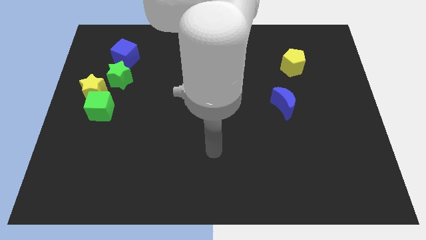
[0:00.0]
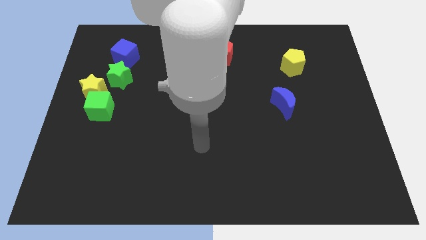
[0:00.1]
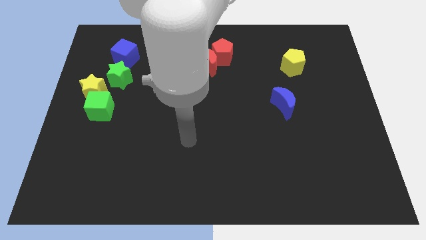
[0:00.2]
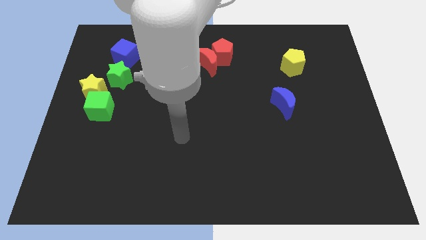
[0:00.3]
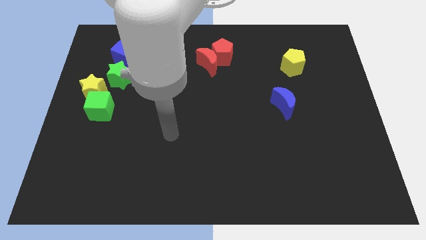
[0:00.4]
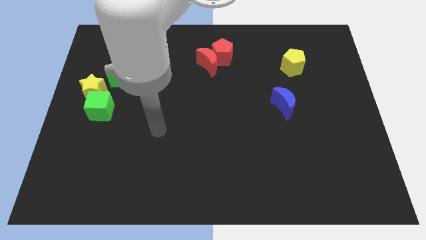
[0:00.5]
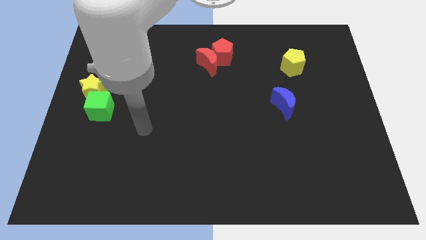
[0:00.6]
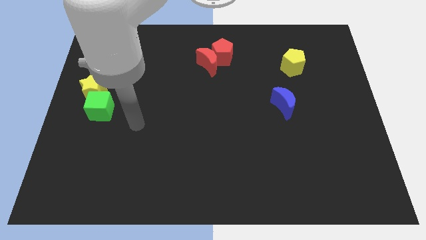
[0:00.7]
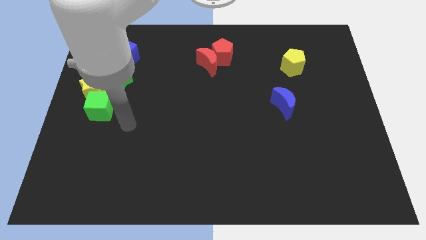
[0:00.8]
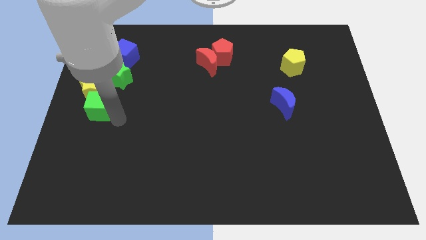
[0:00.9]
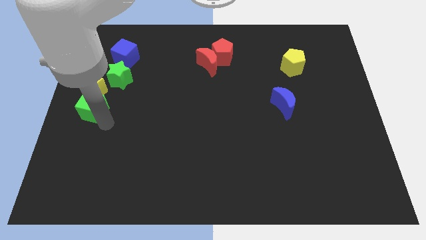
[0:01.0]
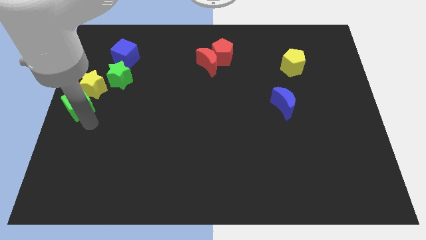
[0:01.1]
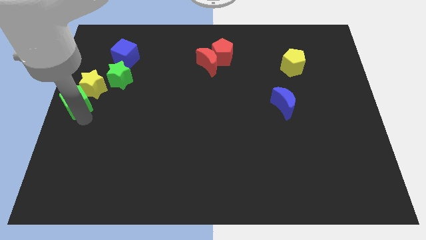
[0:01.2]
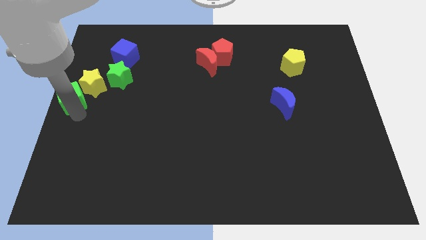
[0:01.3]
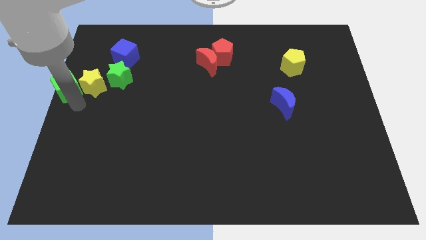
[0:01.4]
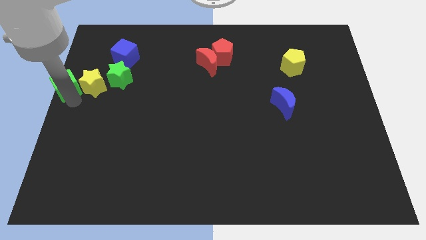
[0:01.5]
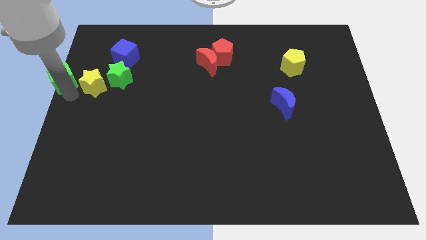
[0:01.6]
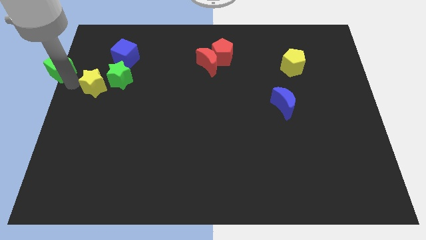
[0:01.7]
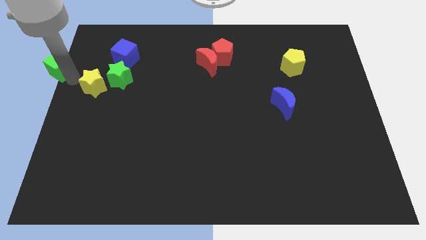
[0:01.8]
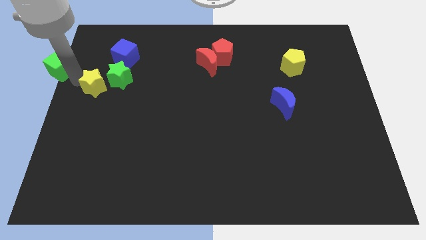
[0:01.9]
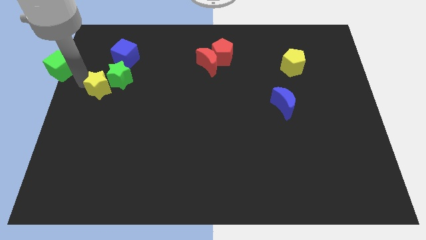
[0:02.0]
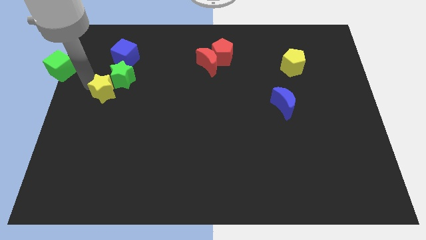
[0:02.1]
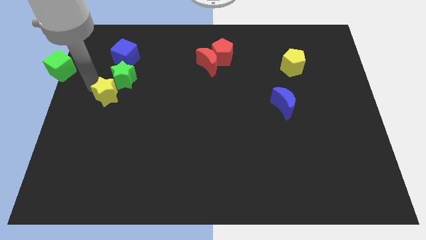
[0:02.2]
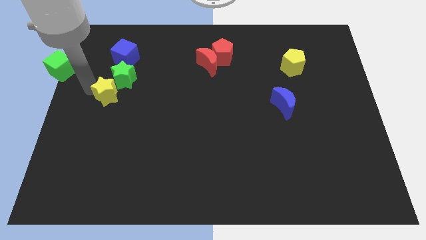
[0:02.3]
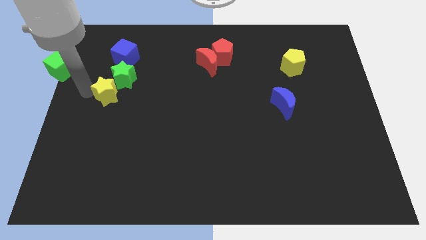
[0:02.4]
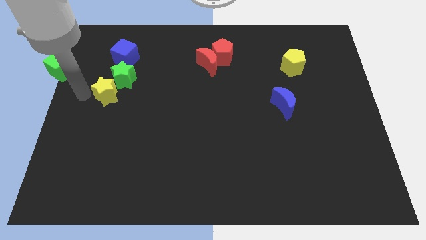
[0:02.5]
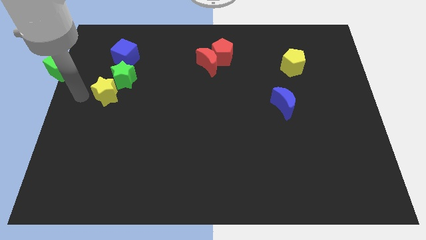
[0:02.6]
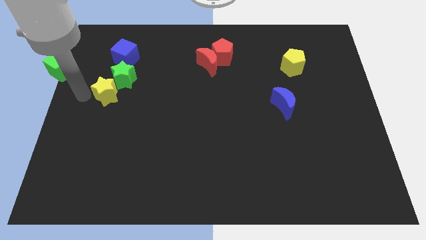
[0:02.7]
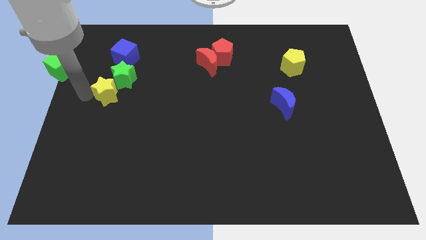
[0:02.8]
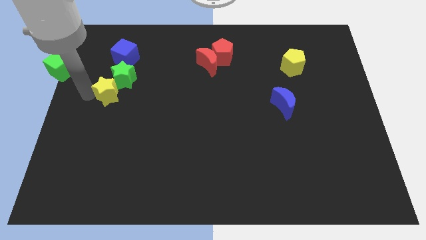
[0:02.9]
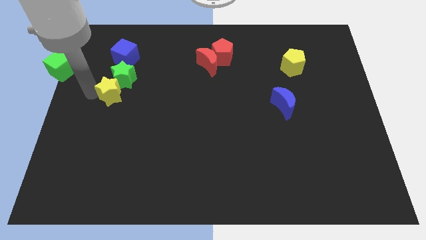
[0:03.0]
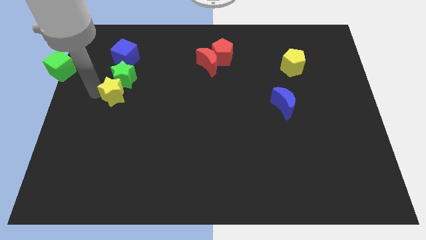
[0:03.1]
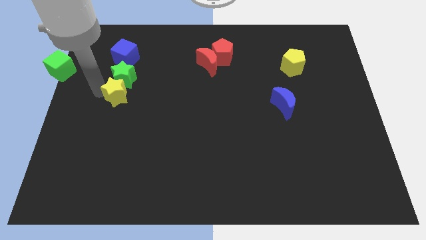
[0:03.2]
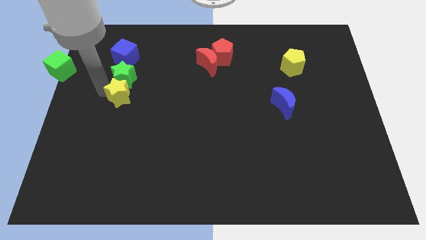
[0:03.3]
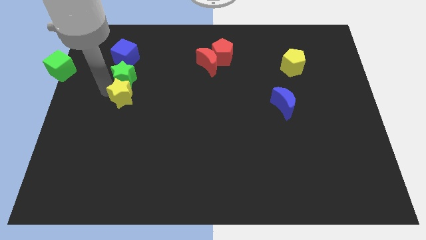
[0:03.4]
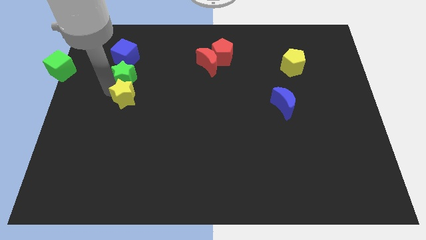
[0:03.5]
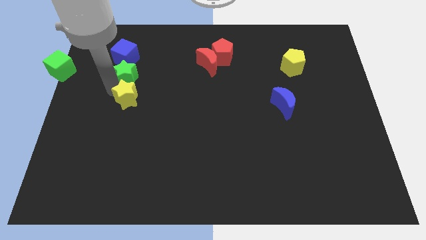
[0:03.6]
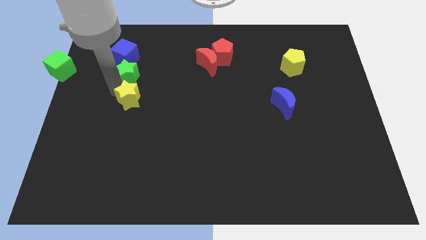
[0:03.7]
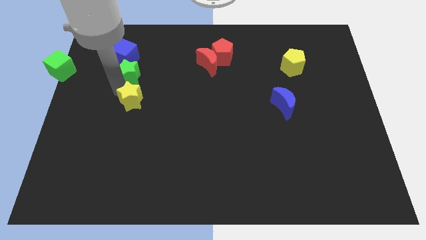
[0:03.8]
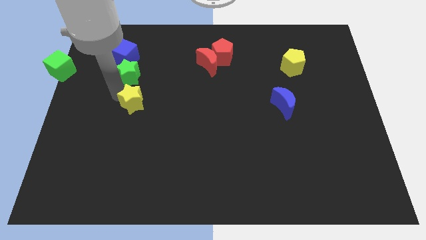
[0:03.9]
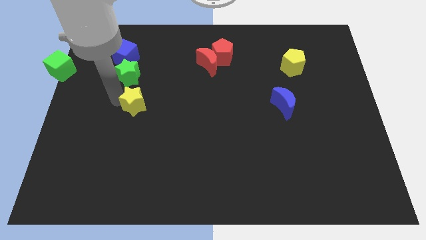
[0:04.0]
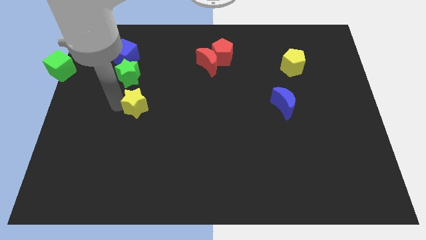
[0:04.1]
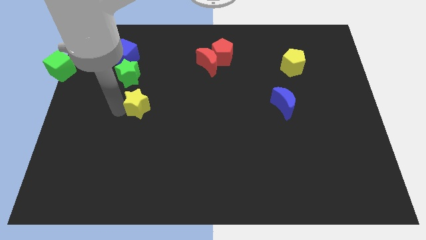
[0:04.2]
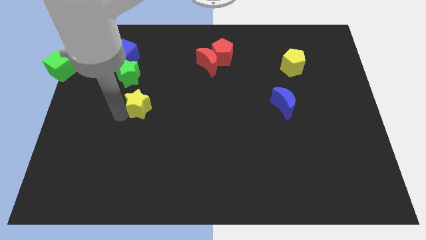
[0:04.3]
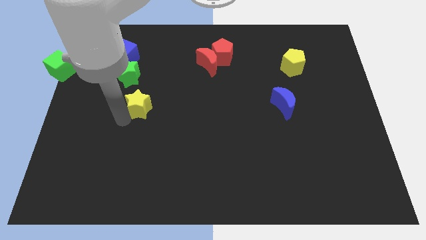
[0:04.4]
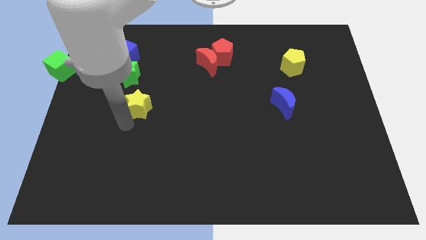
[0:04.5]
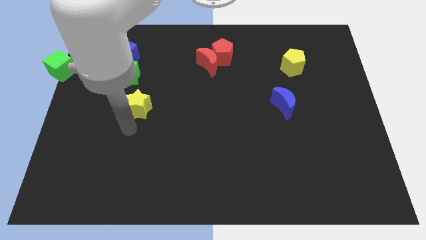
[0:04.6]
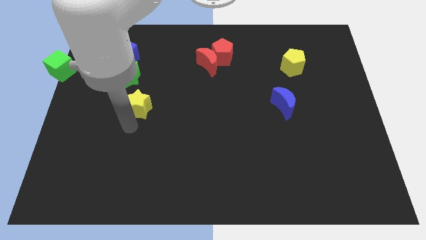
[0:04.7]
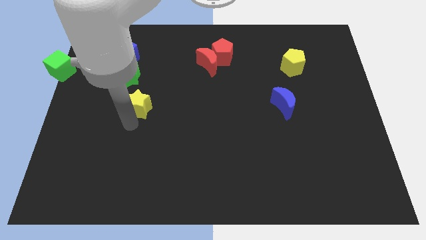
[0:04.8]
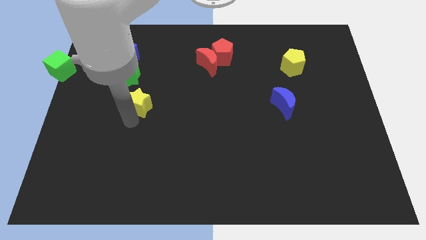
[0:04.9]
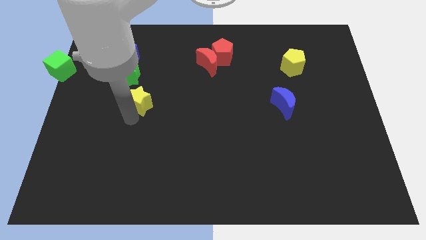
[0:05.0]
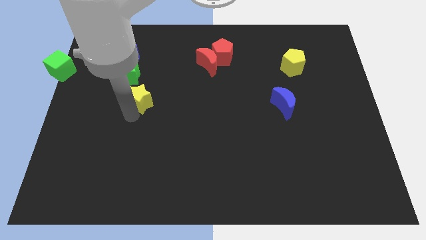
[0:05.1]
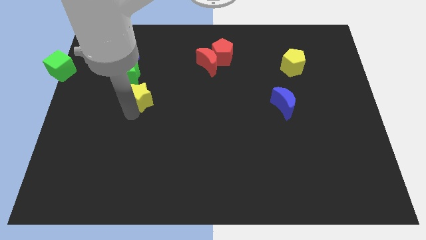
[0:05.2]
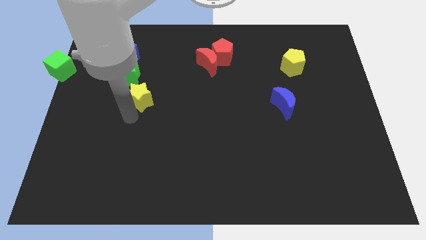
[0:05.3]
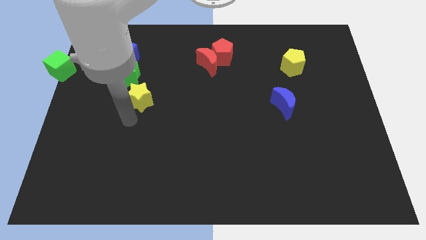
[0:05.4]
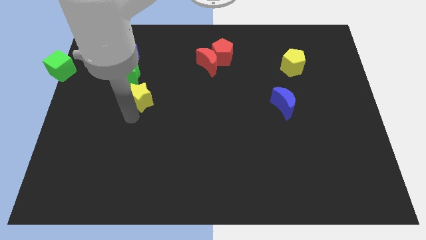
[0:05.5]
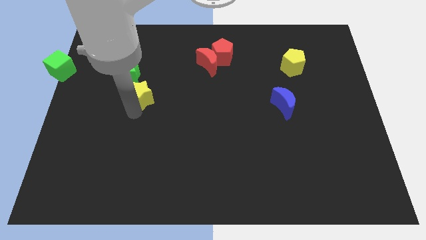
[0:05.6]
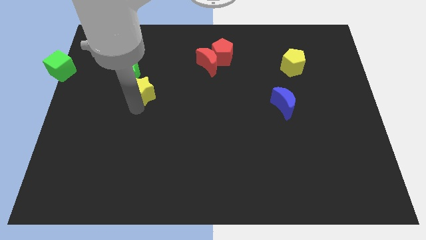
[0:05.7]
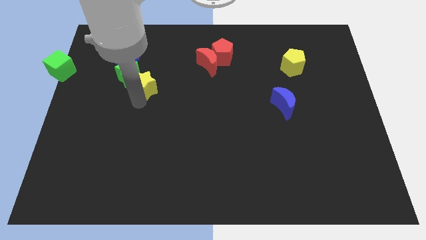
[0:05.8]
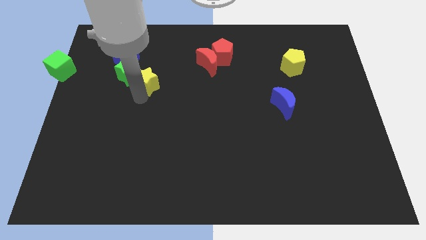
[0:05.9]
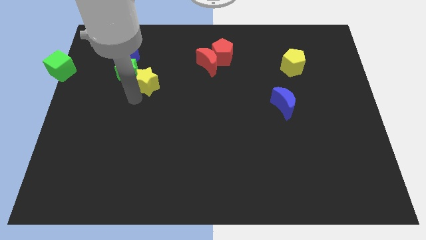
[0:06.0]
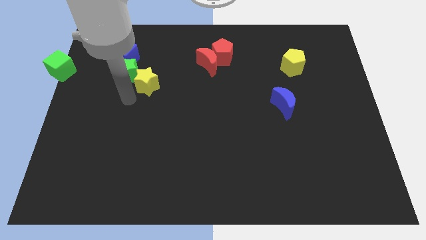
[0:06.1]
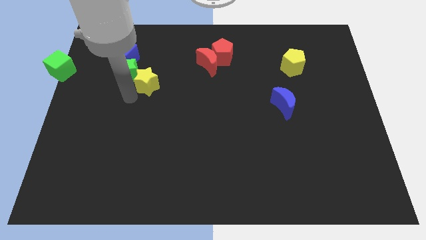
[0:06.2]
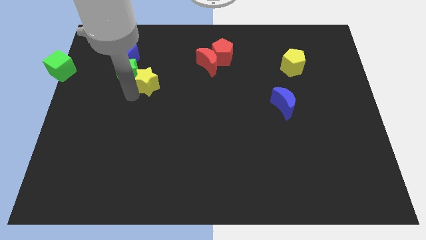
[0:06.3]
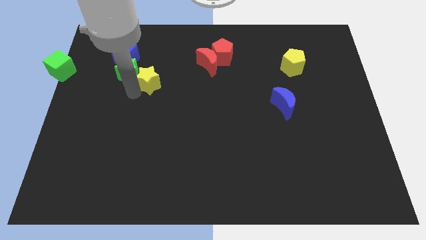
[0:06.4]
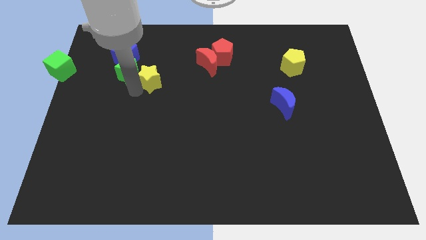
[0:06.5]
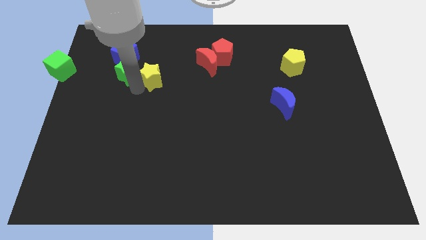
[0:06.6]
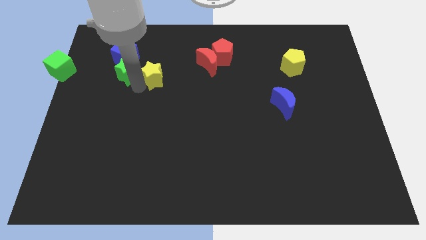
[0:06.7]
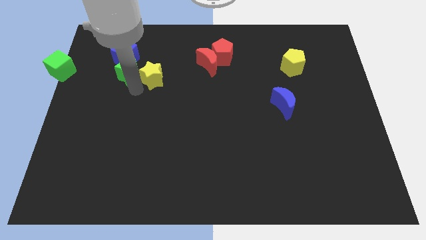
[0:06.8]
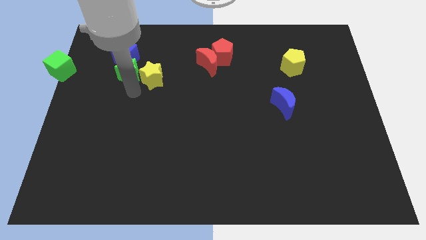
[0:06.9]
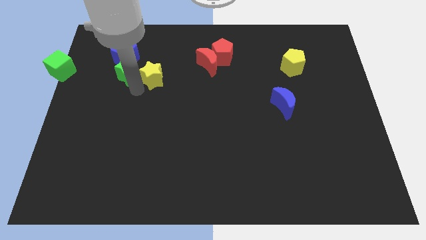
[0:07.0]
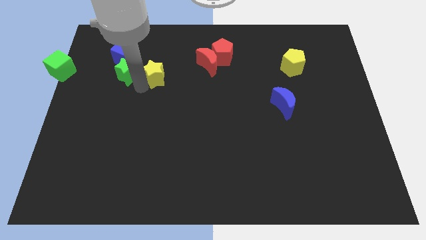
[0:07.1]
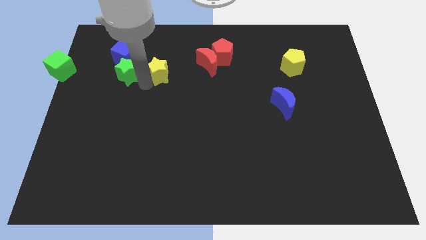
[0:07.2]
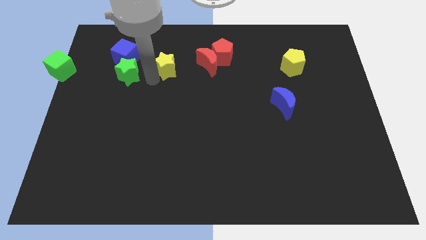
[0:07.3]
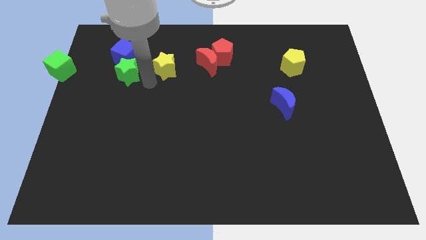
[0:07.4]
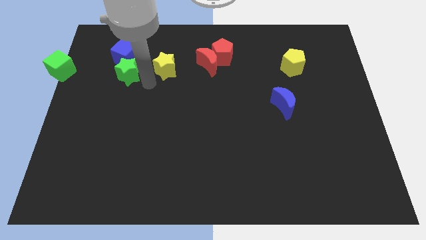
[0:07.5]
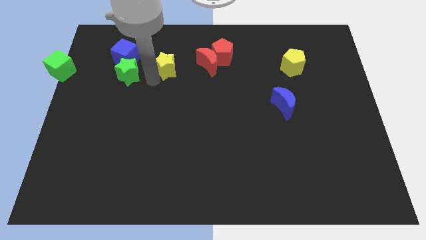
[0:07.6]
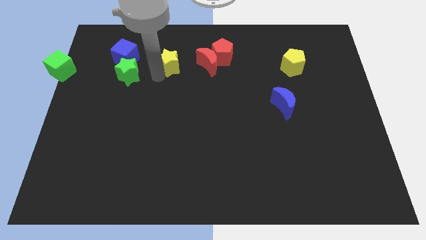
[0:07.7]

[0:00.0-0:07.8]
slide the yellow star to the left side of the red pentagon
